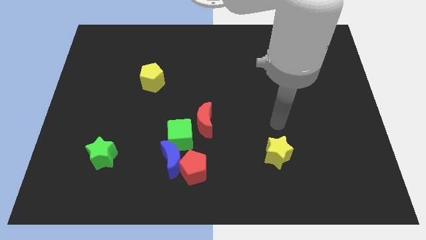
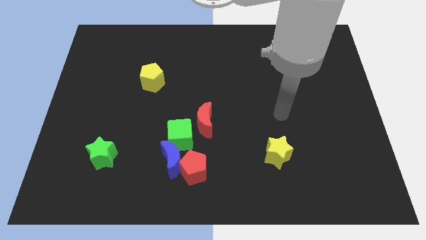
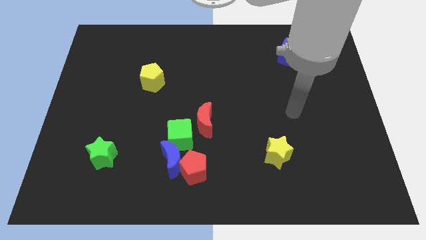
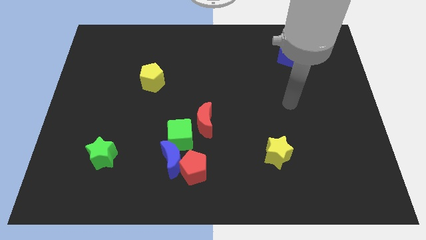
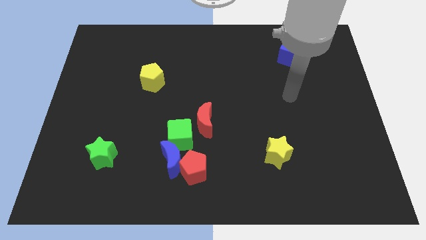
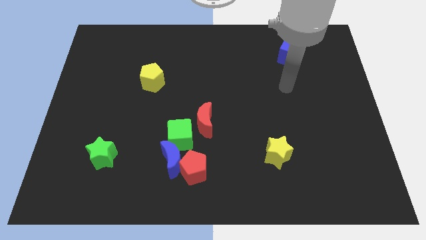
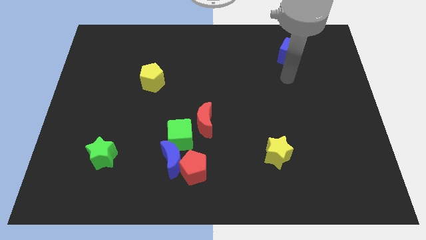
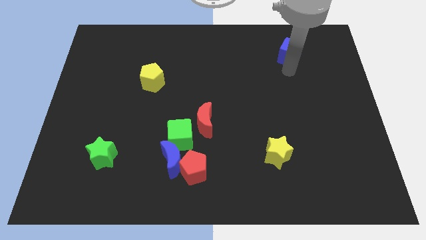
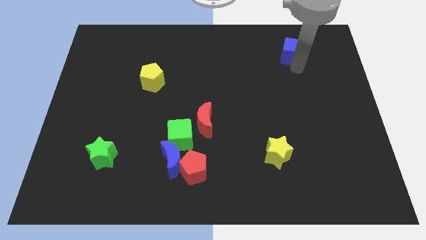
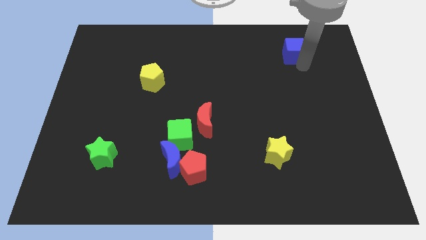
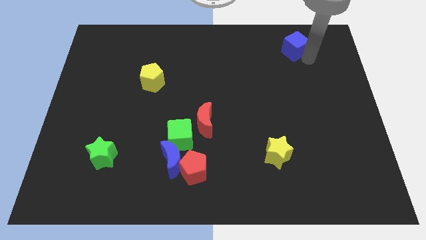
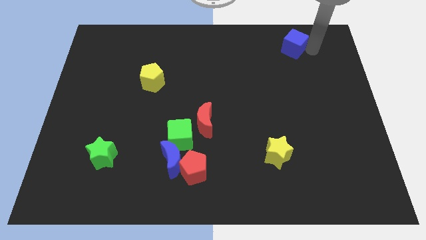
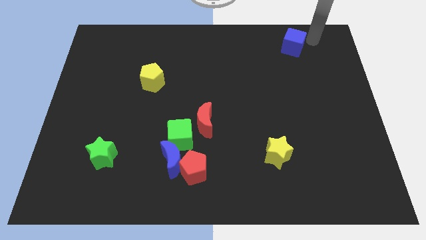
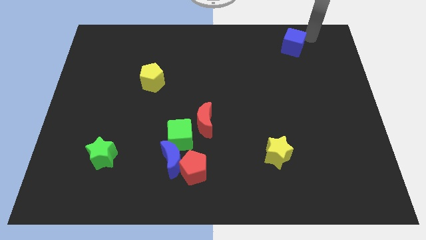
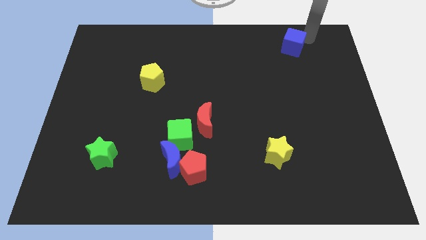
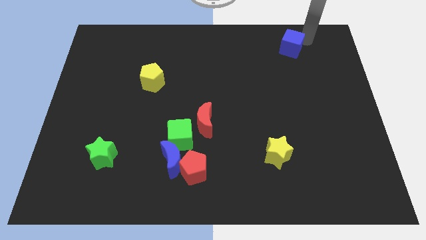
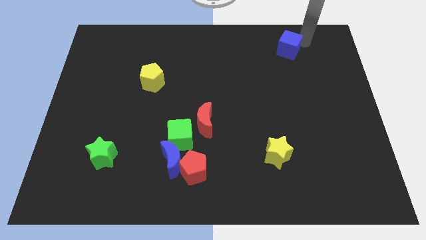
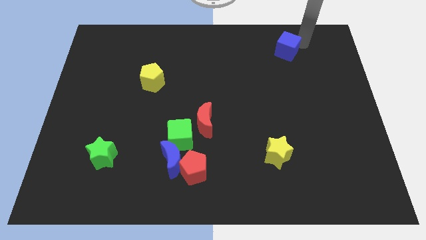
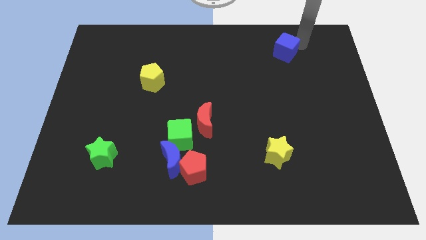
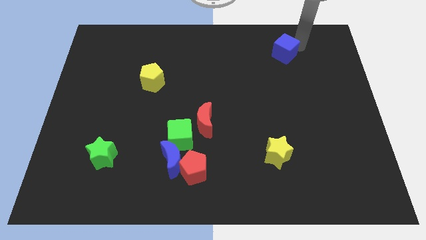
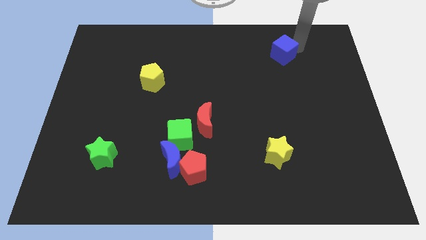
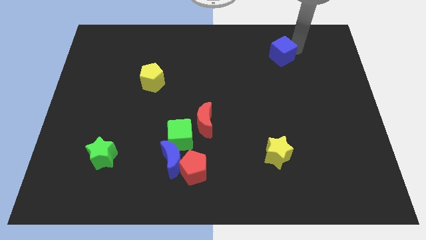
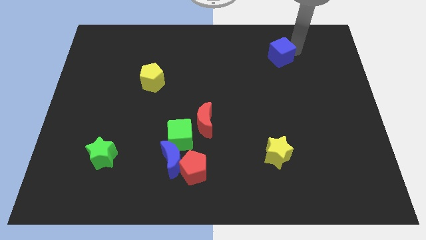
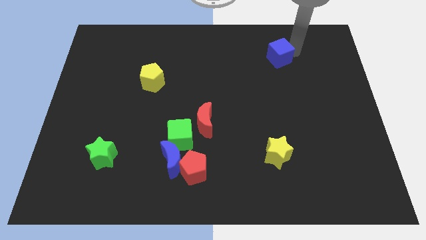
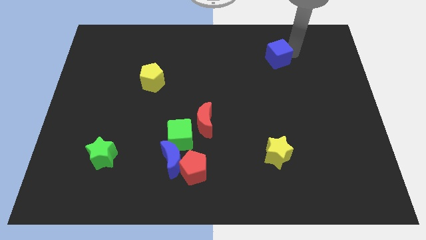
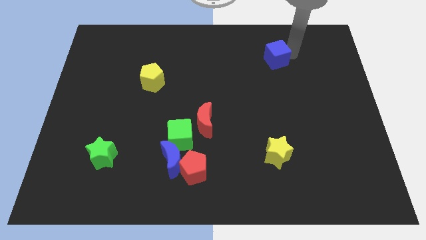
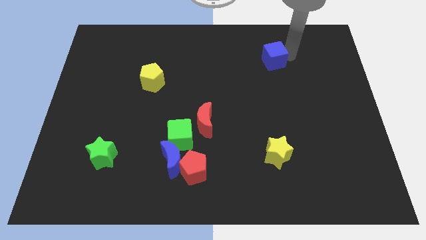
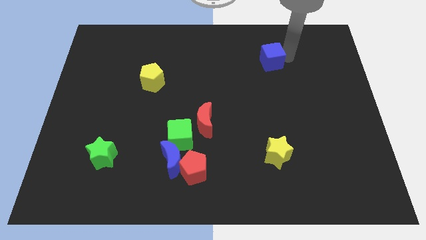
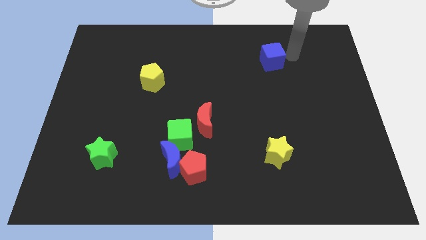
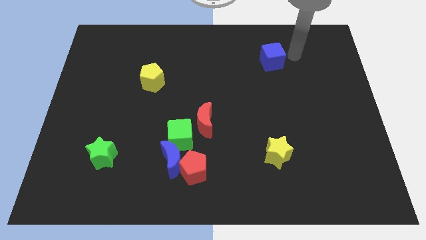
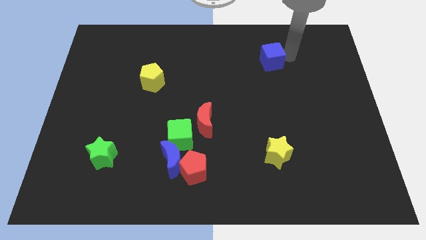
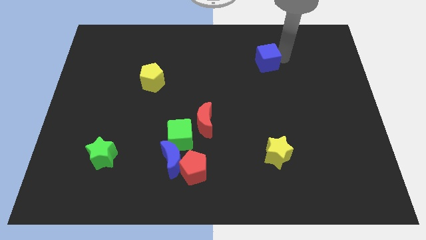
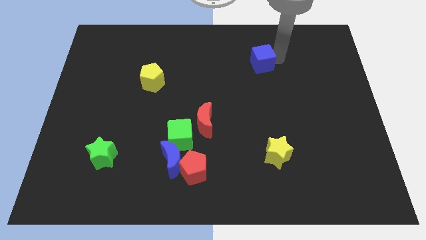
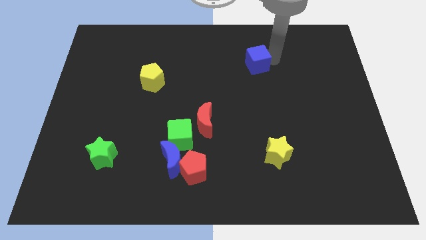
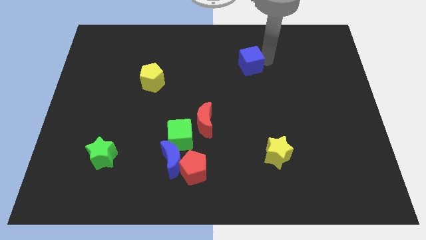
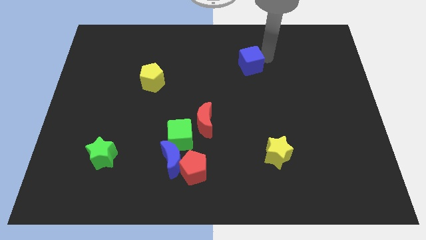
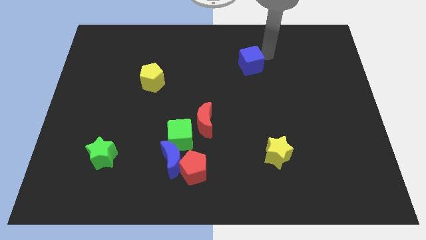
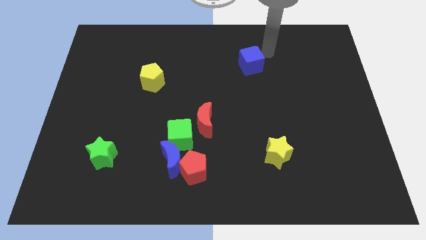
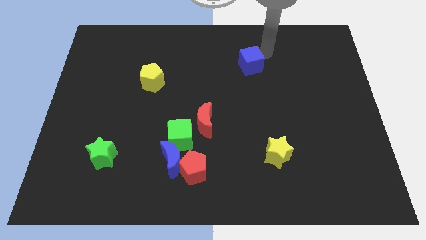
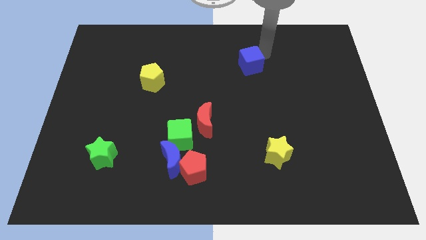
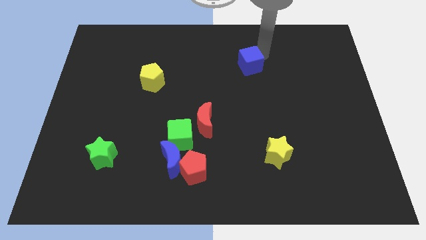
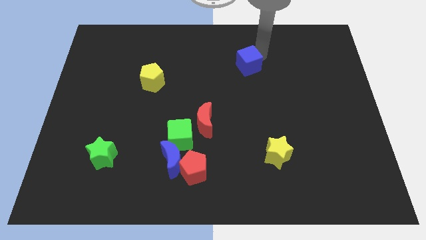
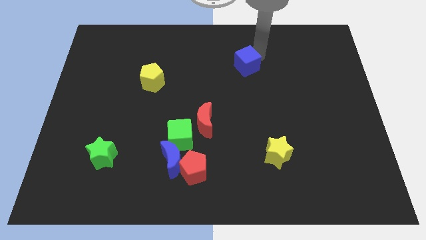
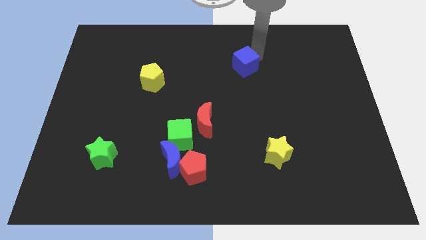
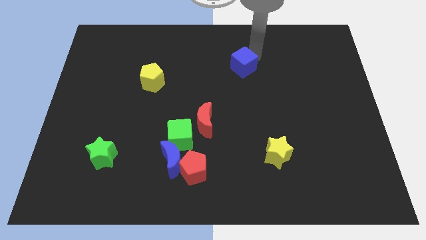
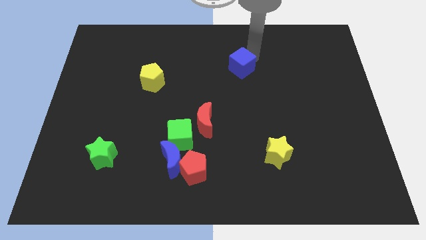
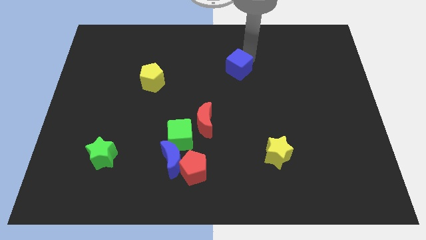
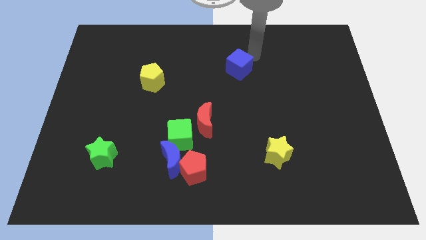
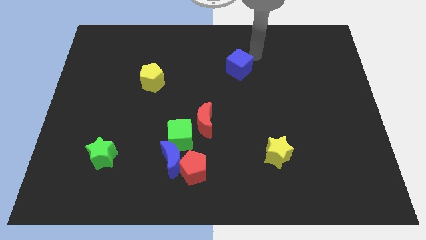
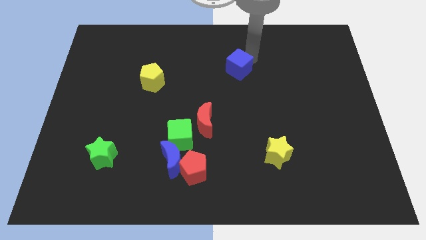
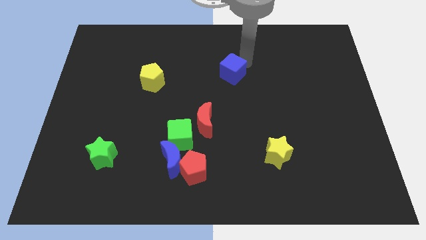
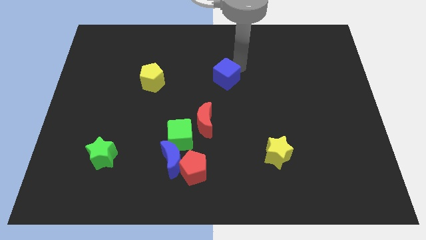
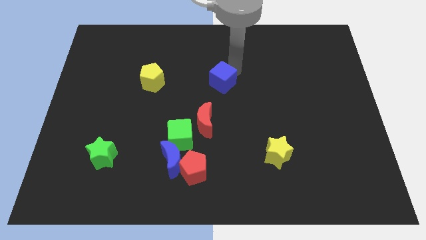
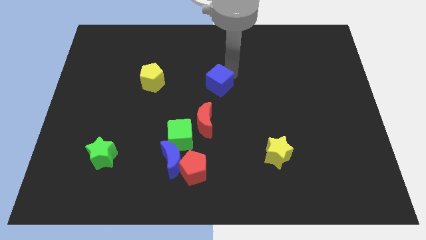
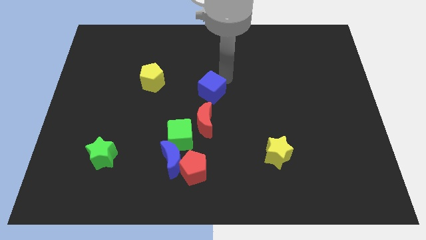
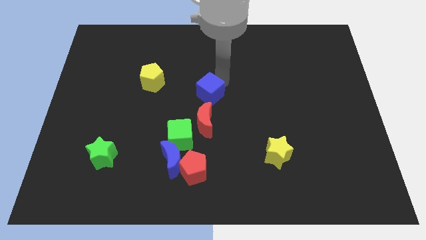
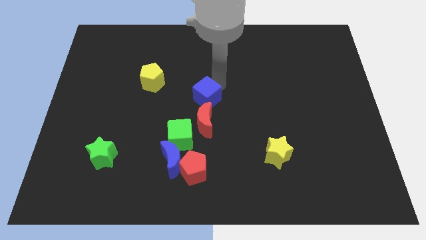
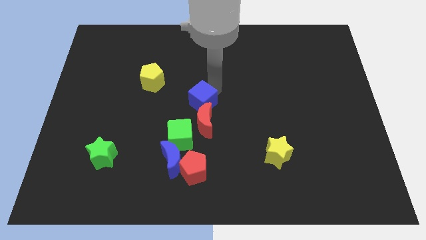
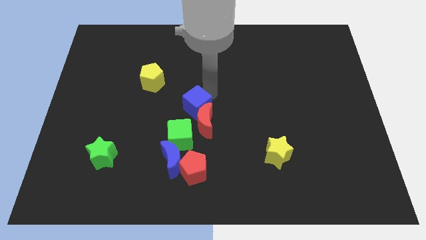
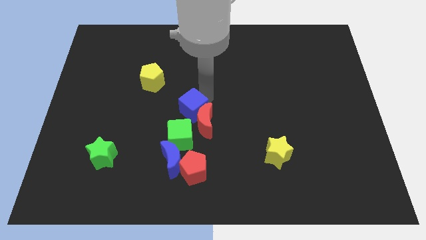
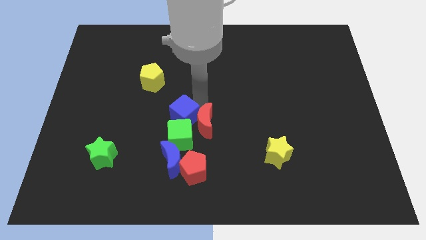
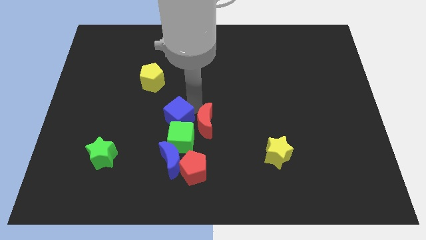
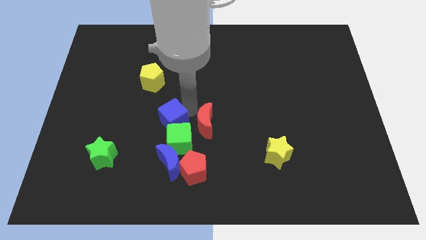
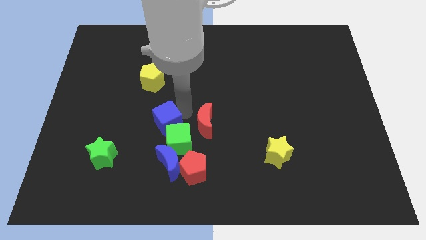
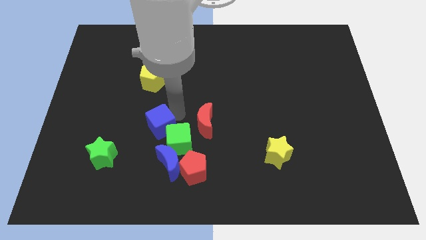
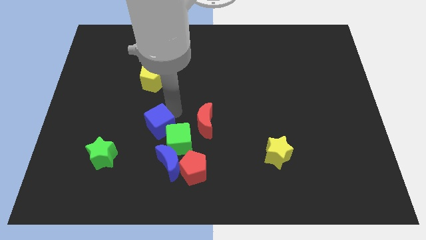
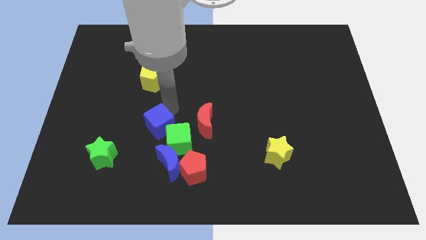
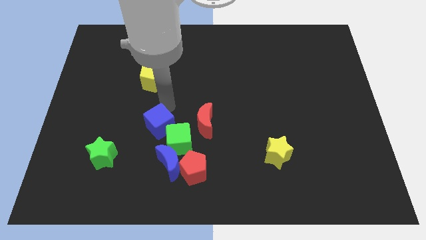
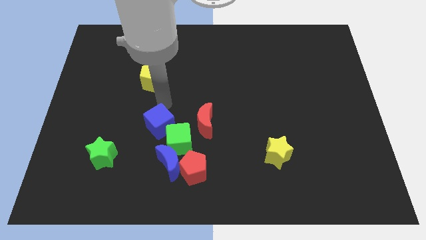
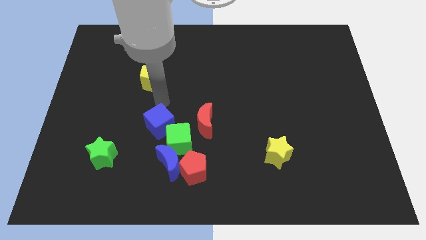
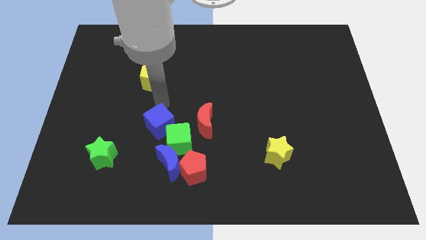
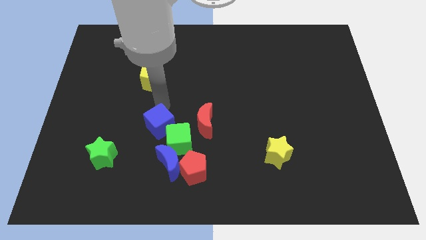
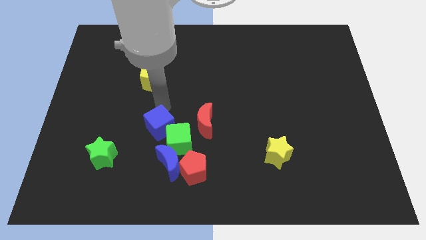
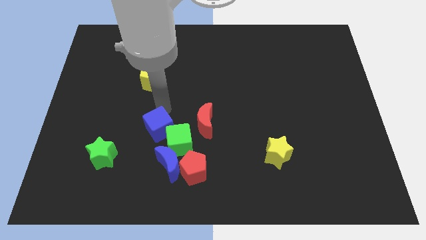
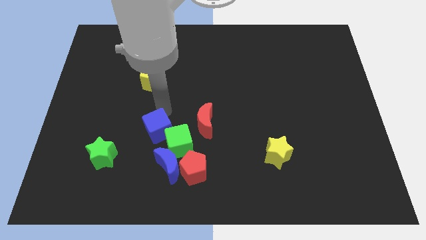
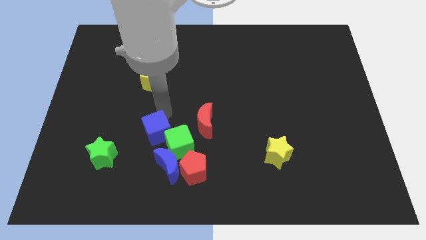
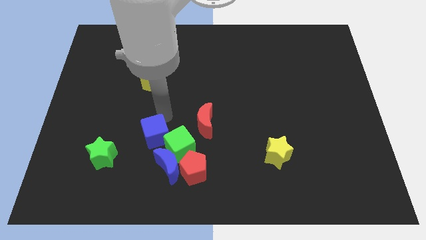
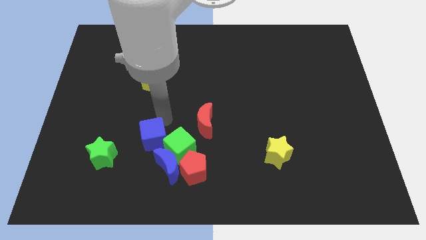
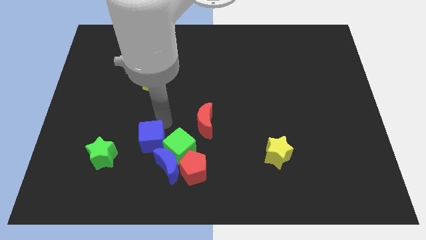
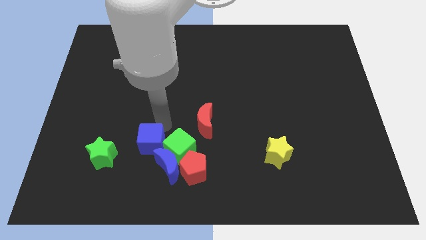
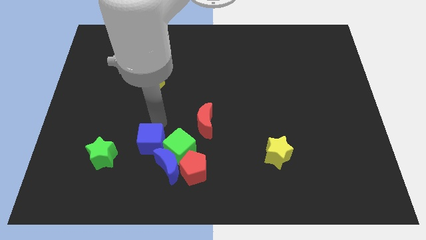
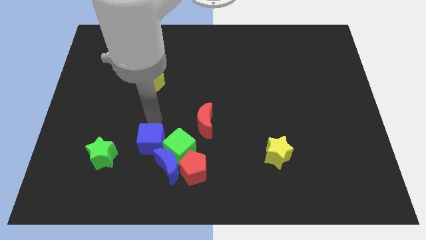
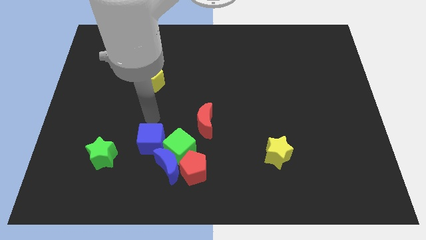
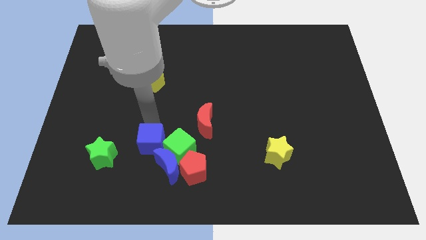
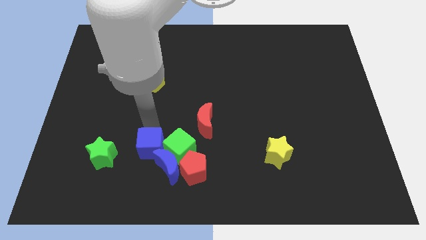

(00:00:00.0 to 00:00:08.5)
push the blue cube to the bottom left side of the green cube
